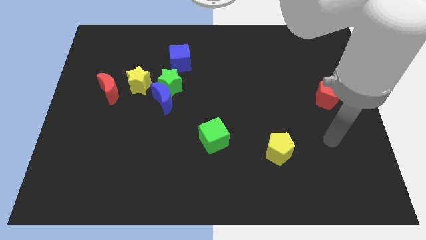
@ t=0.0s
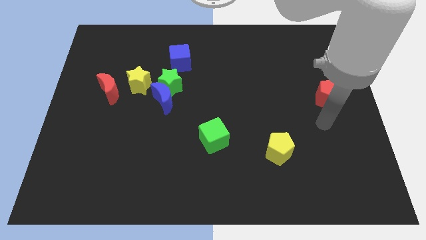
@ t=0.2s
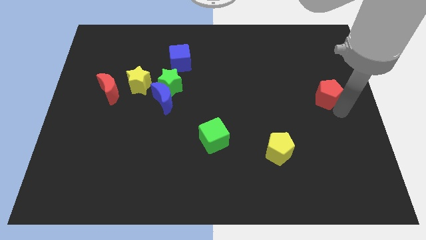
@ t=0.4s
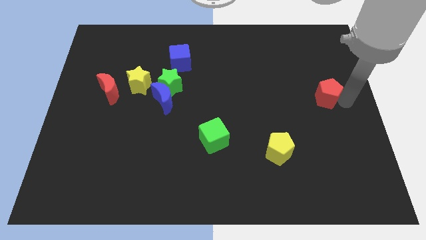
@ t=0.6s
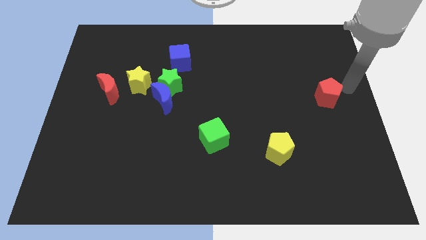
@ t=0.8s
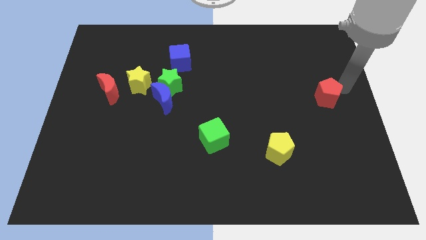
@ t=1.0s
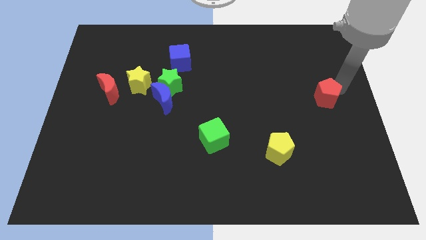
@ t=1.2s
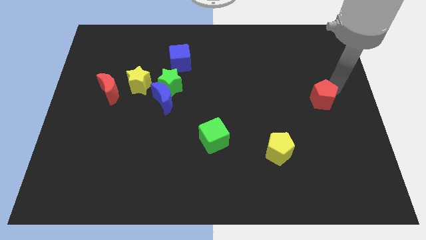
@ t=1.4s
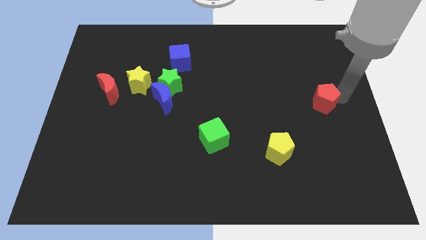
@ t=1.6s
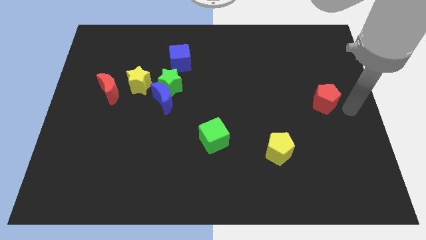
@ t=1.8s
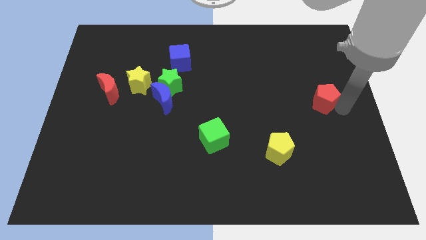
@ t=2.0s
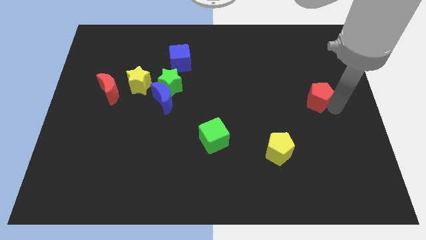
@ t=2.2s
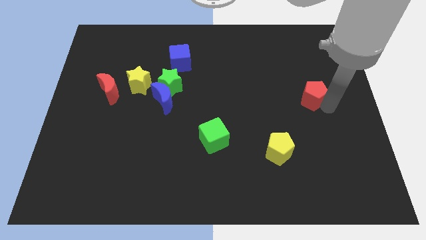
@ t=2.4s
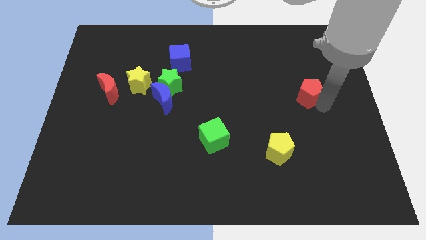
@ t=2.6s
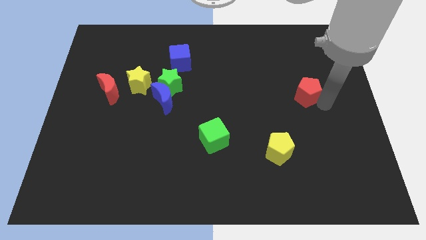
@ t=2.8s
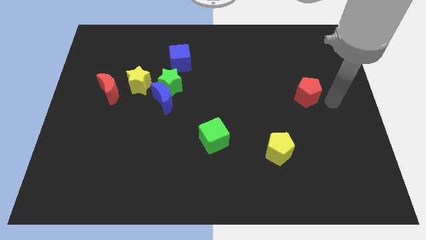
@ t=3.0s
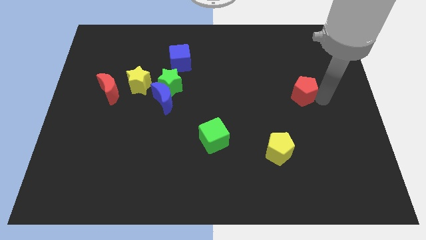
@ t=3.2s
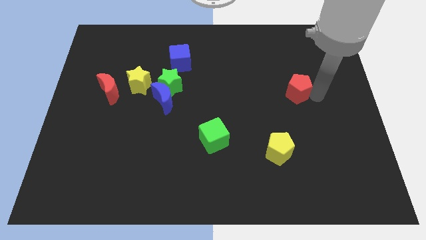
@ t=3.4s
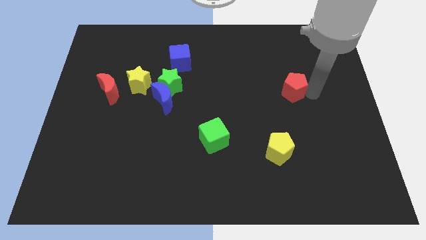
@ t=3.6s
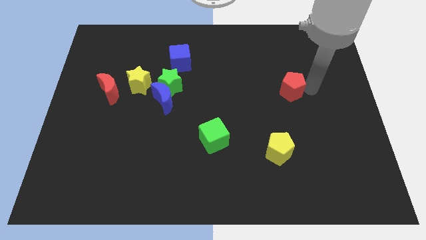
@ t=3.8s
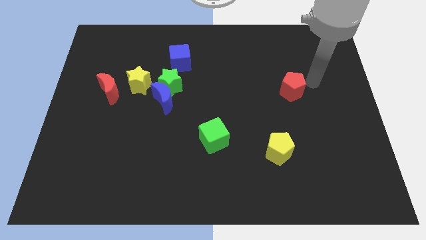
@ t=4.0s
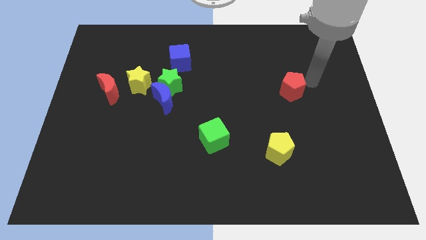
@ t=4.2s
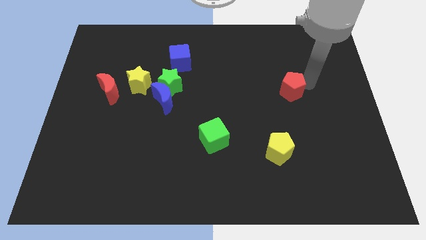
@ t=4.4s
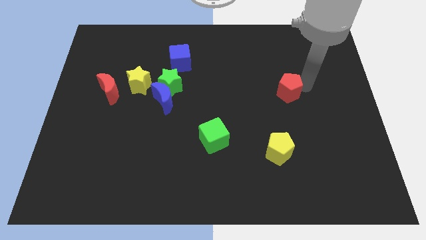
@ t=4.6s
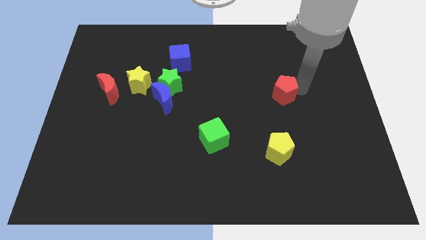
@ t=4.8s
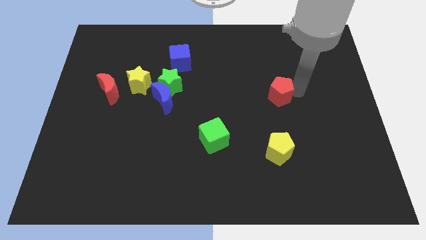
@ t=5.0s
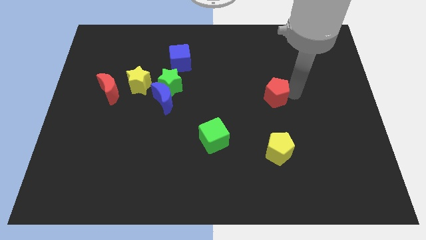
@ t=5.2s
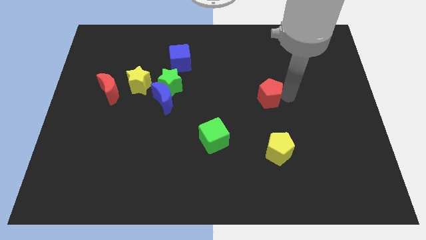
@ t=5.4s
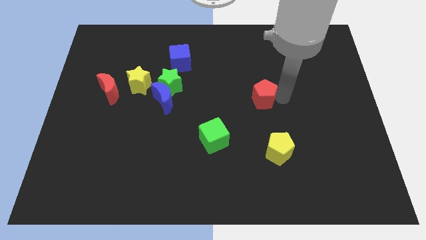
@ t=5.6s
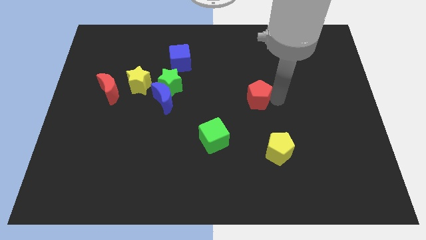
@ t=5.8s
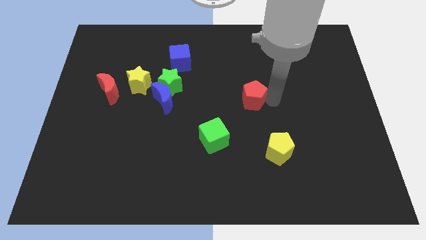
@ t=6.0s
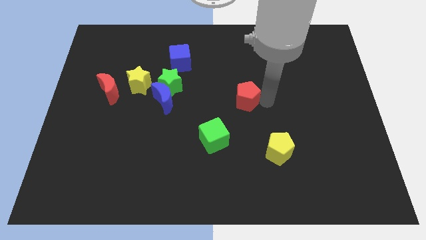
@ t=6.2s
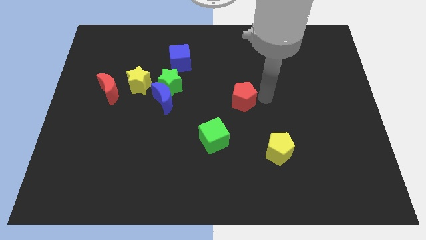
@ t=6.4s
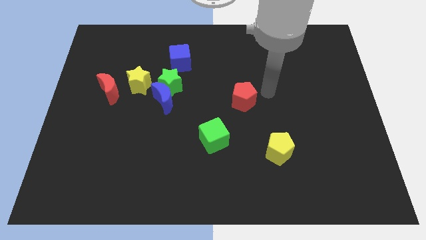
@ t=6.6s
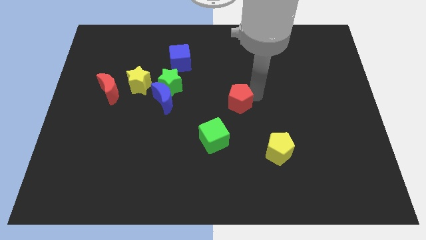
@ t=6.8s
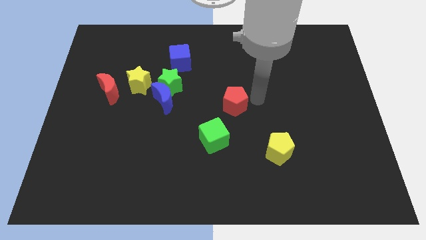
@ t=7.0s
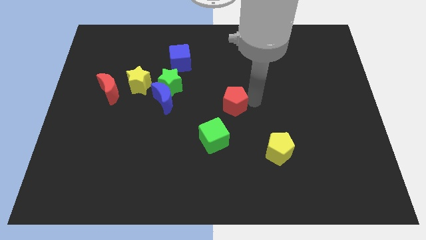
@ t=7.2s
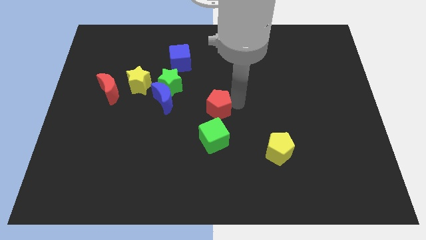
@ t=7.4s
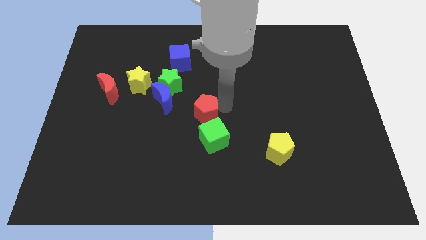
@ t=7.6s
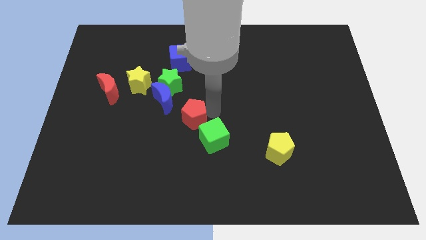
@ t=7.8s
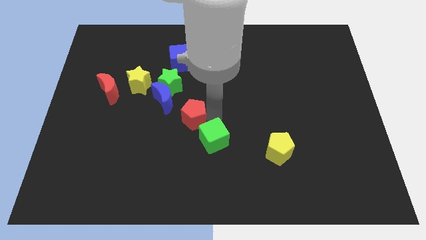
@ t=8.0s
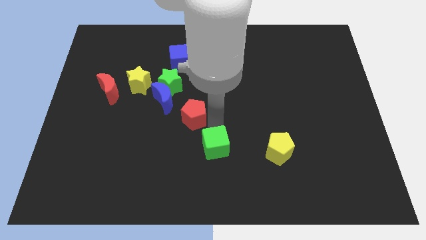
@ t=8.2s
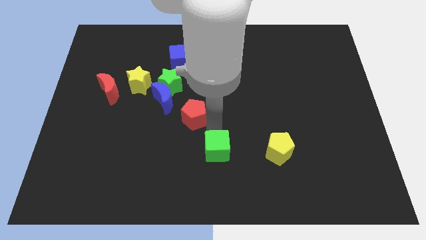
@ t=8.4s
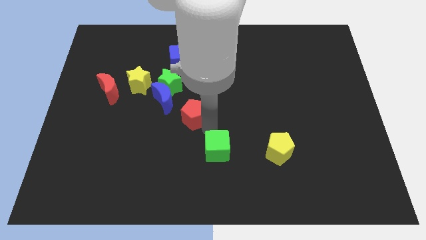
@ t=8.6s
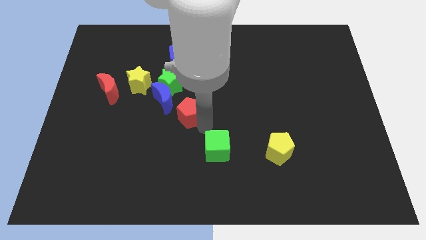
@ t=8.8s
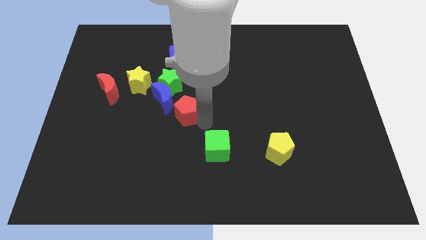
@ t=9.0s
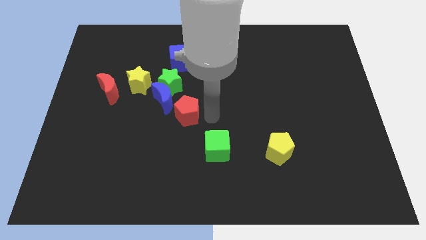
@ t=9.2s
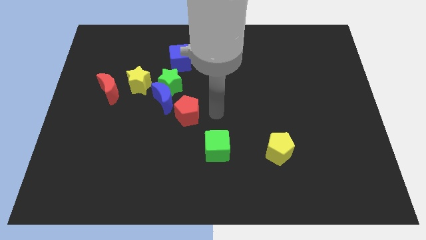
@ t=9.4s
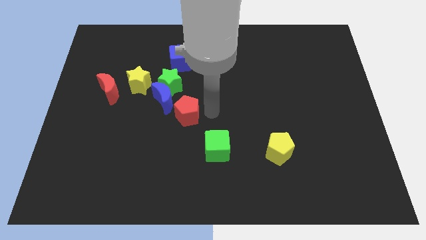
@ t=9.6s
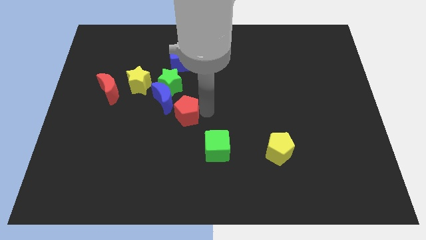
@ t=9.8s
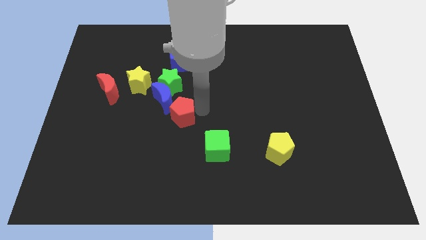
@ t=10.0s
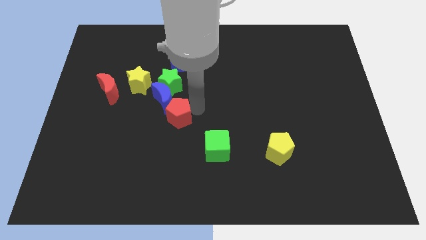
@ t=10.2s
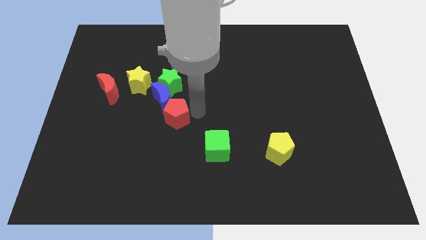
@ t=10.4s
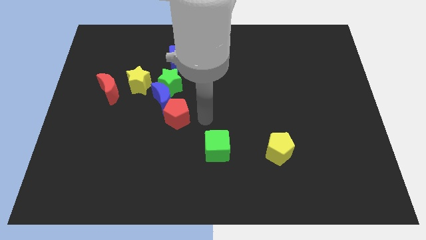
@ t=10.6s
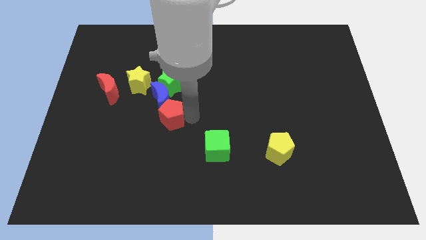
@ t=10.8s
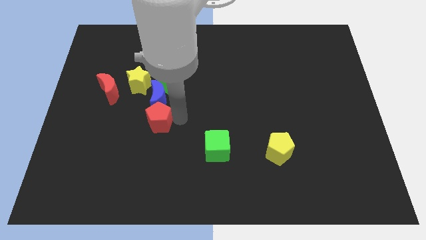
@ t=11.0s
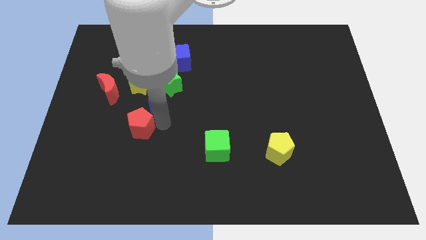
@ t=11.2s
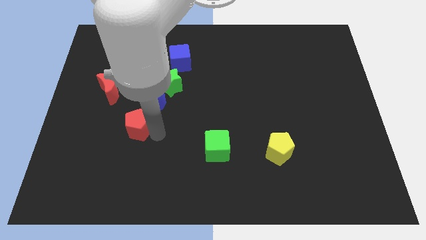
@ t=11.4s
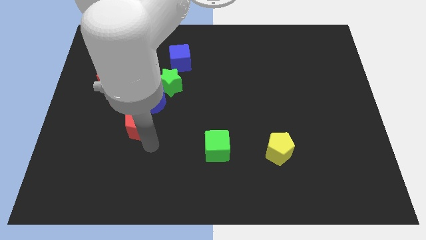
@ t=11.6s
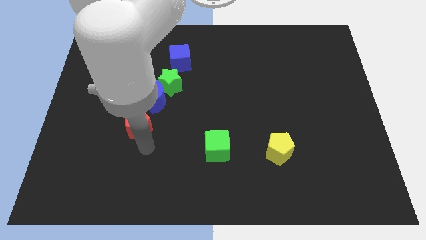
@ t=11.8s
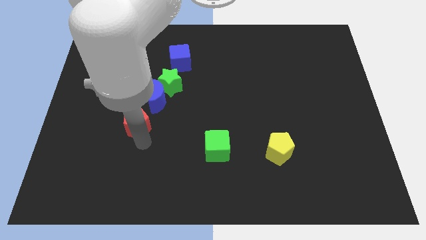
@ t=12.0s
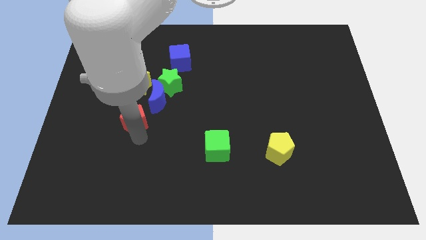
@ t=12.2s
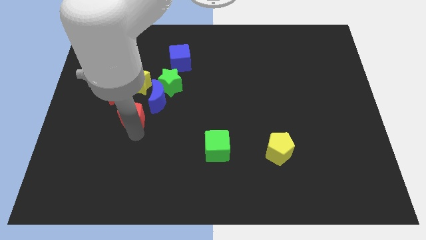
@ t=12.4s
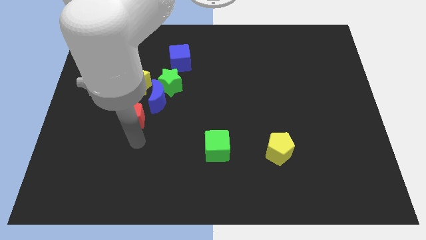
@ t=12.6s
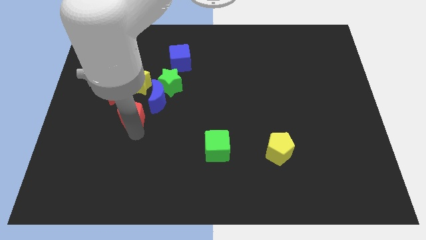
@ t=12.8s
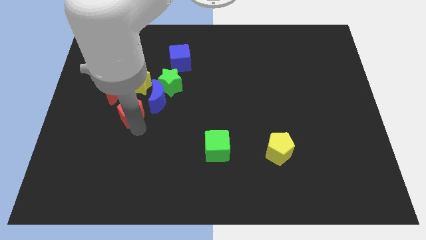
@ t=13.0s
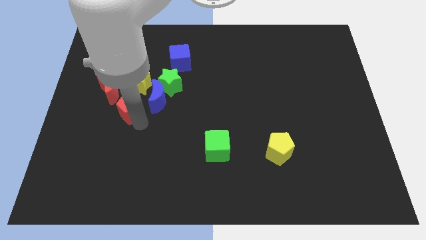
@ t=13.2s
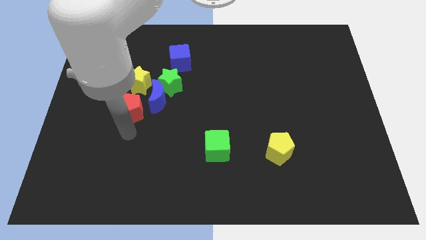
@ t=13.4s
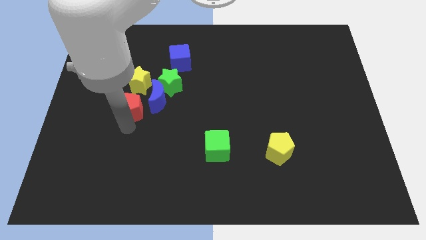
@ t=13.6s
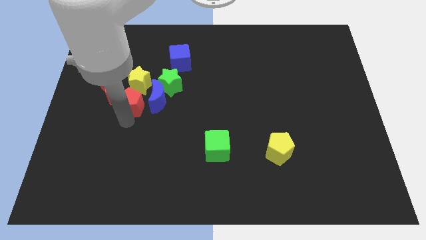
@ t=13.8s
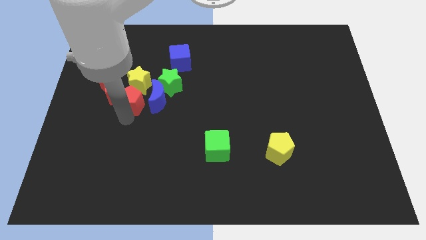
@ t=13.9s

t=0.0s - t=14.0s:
move the red pentagon to the yellow star
